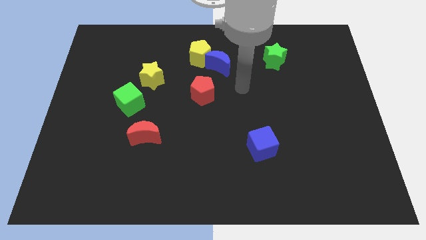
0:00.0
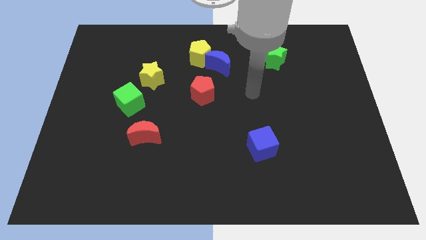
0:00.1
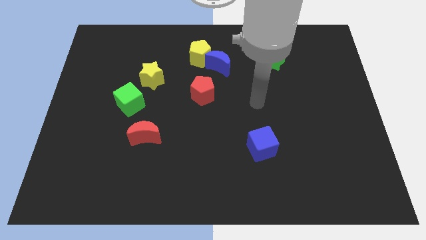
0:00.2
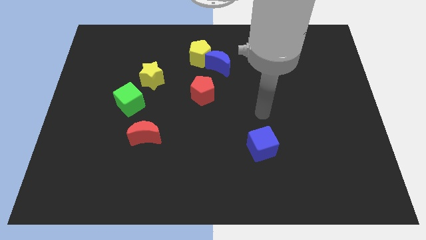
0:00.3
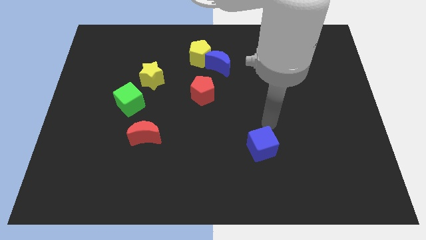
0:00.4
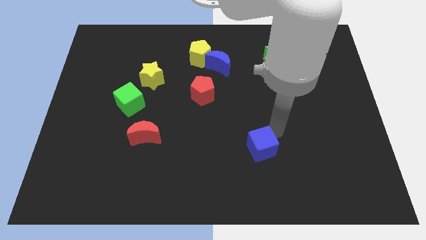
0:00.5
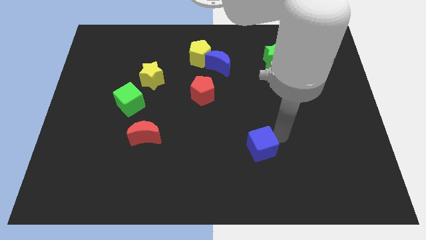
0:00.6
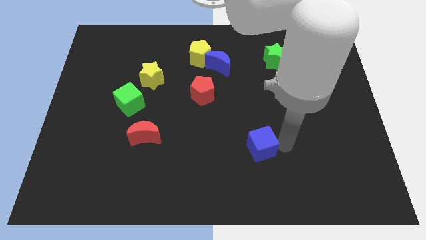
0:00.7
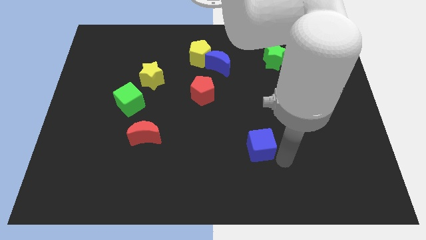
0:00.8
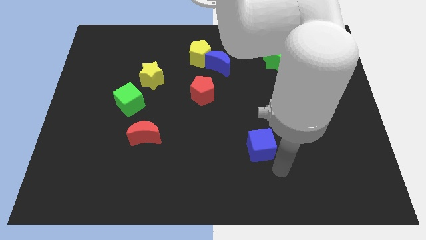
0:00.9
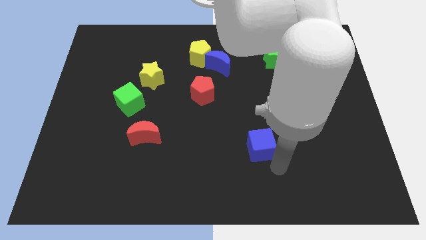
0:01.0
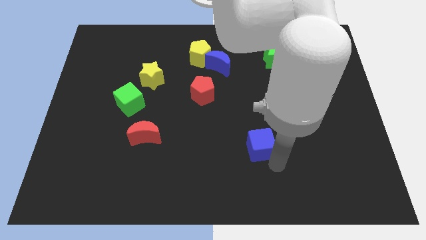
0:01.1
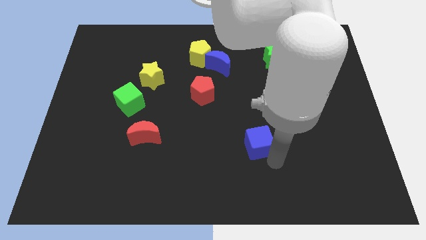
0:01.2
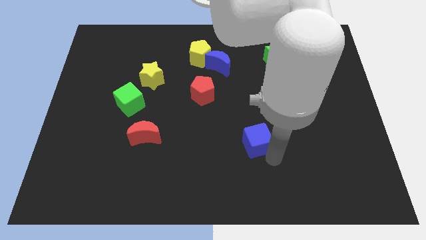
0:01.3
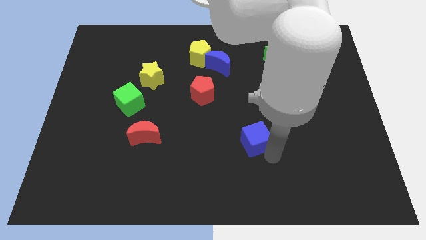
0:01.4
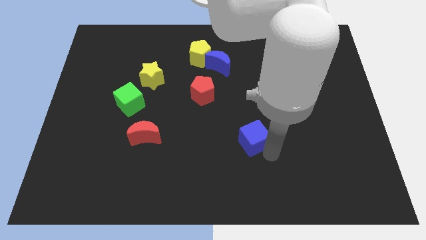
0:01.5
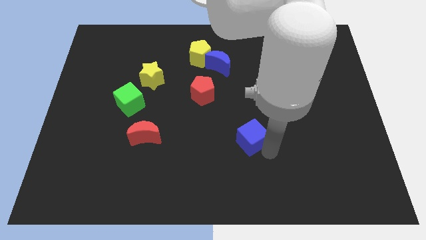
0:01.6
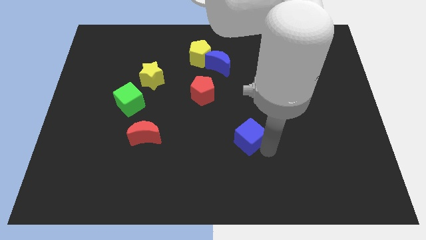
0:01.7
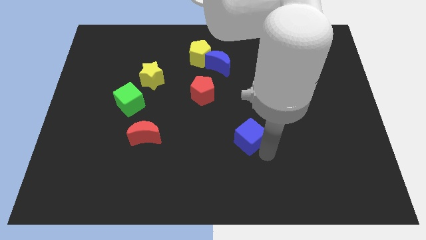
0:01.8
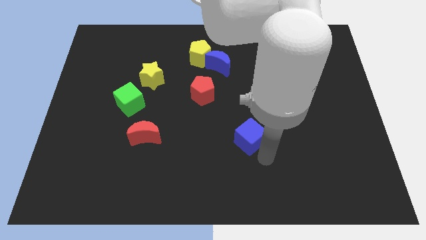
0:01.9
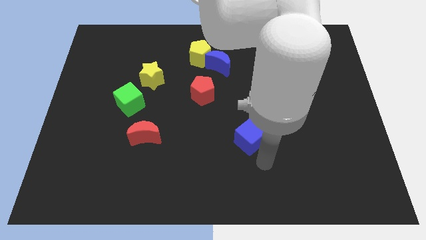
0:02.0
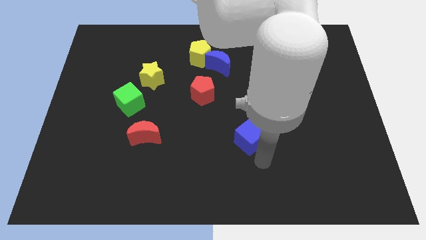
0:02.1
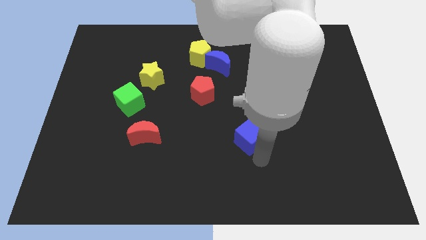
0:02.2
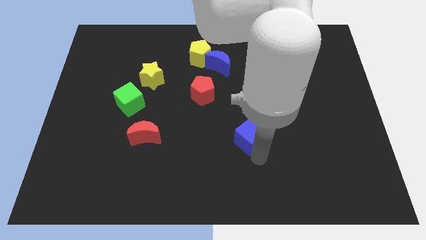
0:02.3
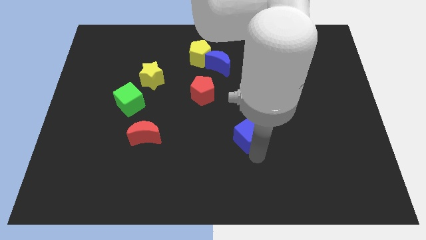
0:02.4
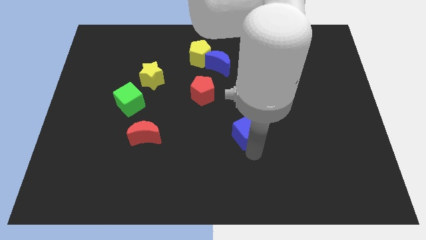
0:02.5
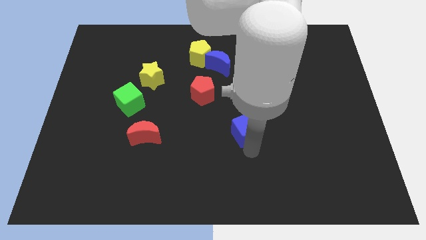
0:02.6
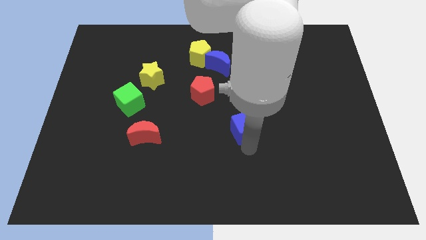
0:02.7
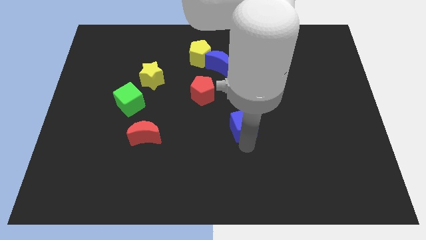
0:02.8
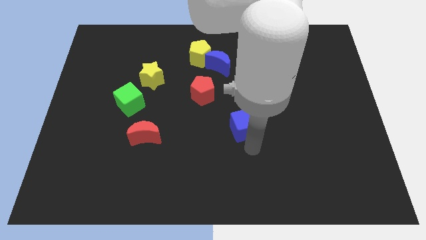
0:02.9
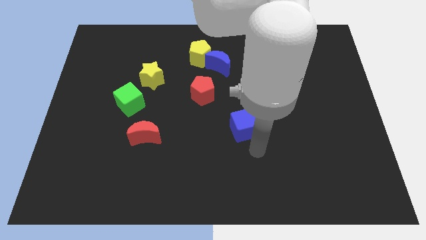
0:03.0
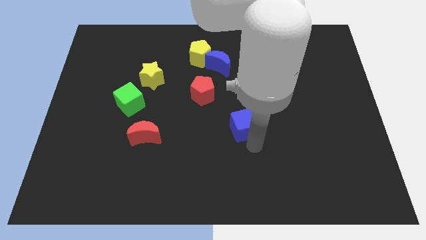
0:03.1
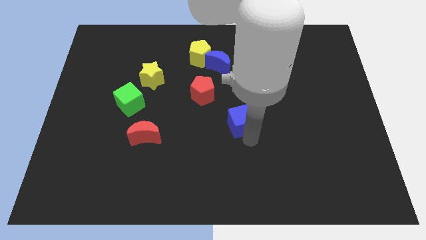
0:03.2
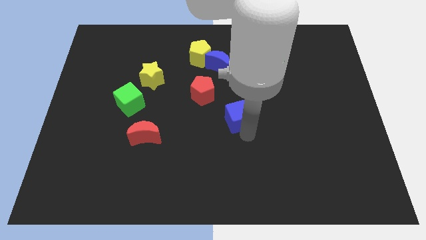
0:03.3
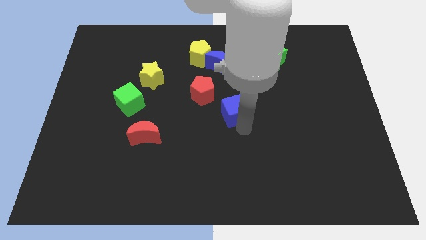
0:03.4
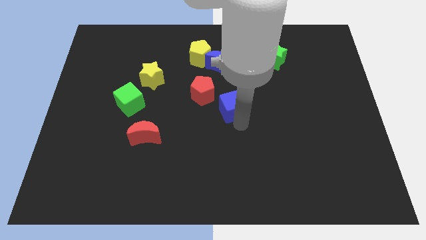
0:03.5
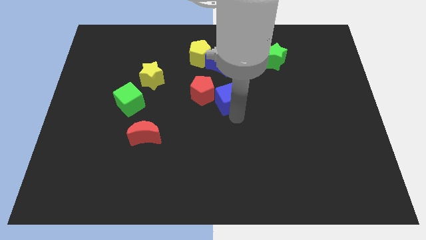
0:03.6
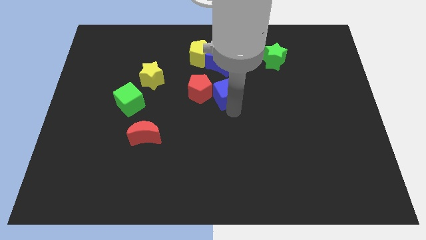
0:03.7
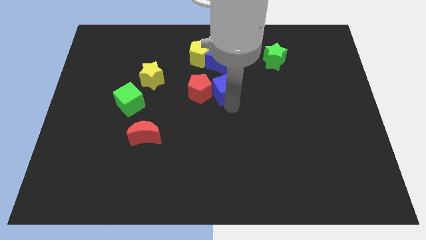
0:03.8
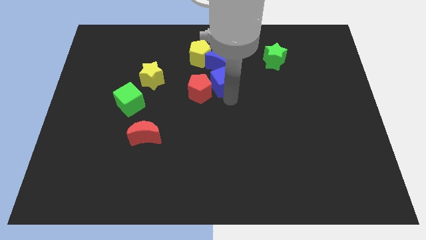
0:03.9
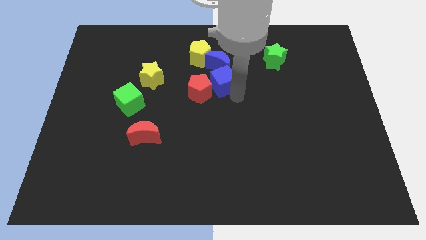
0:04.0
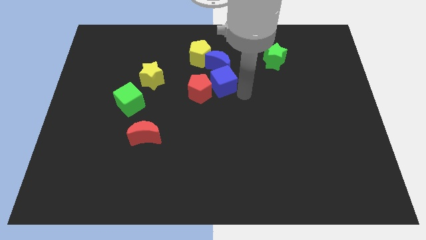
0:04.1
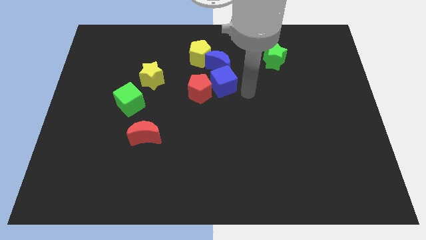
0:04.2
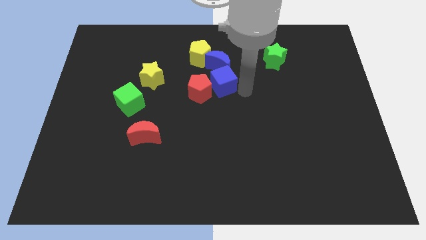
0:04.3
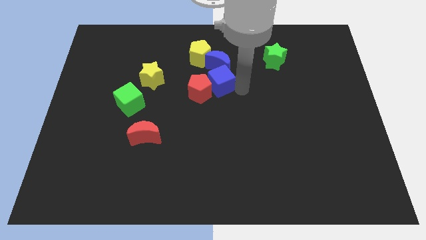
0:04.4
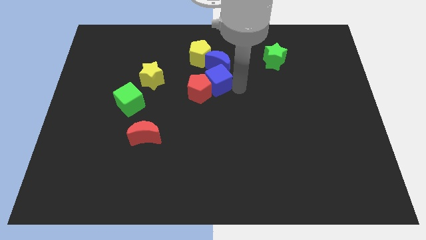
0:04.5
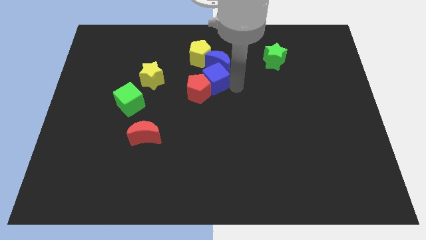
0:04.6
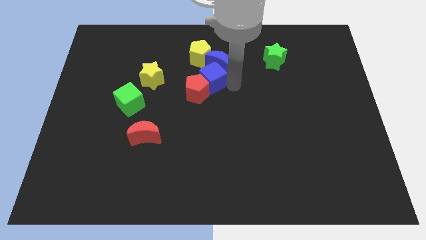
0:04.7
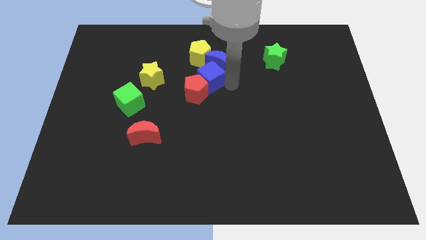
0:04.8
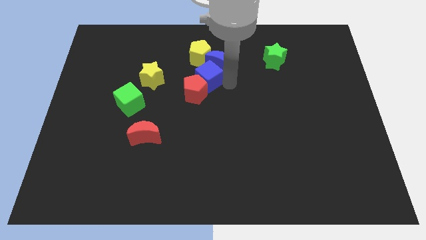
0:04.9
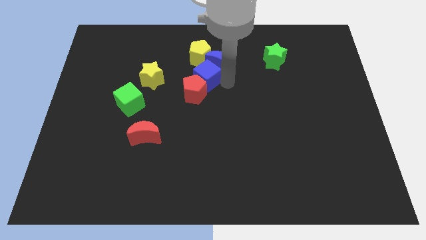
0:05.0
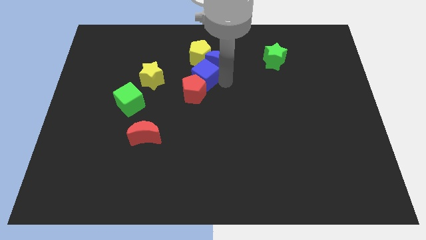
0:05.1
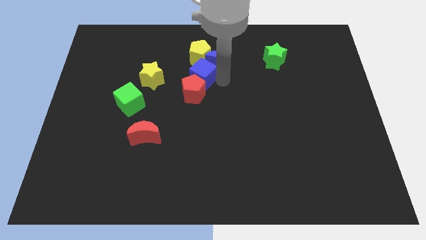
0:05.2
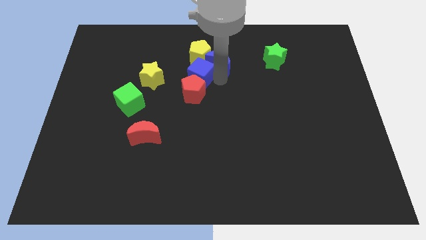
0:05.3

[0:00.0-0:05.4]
push the blue cube diagonally down and to the left of the yellow pentagon

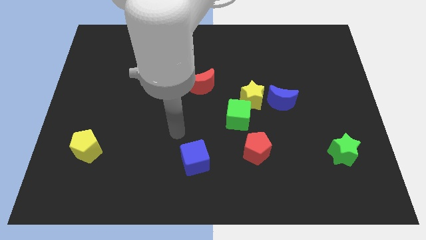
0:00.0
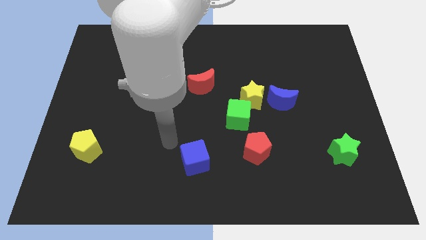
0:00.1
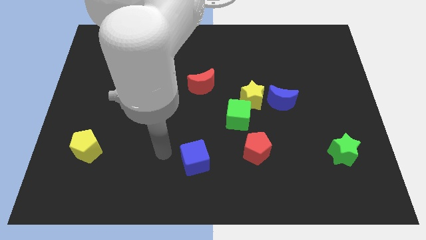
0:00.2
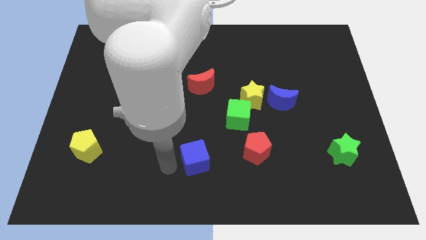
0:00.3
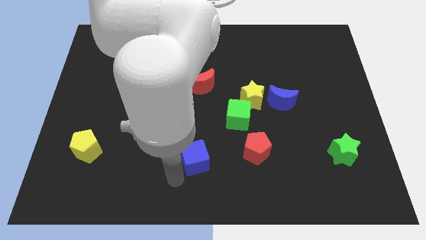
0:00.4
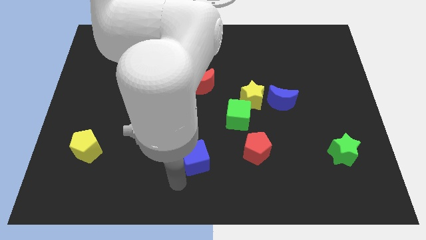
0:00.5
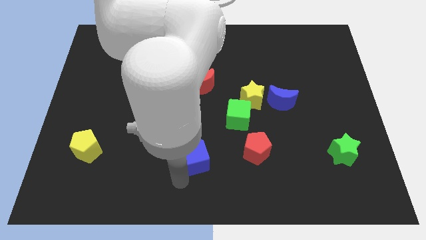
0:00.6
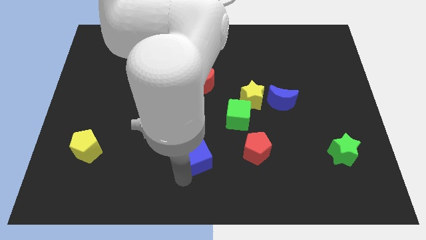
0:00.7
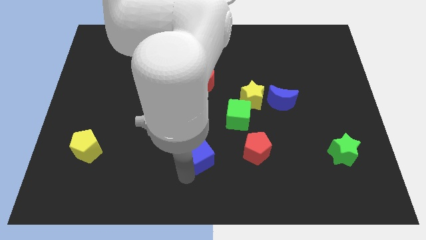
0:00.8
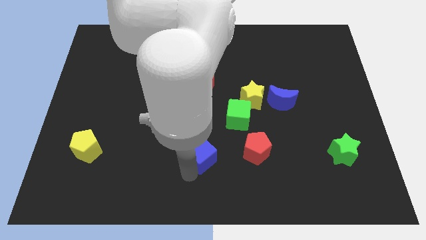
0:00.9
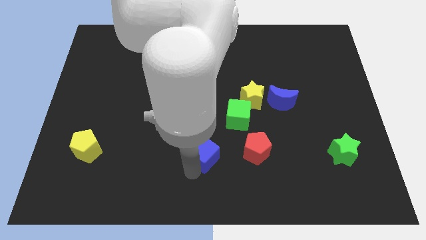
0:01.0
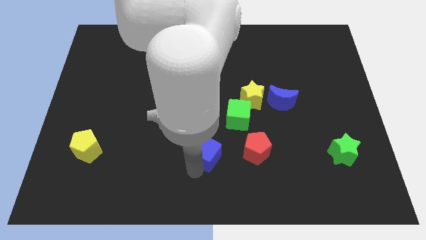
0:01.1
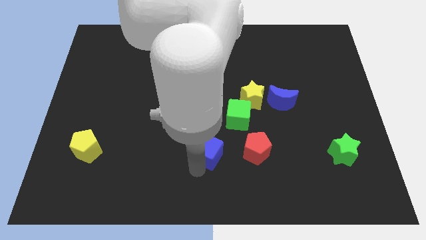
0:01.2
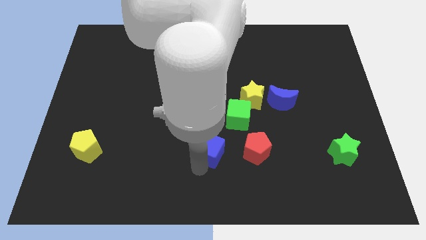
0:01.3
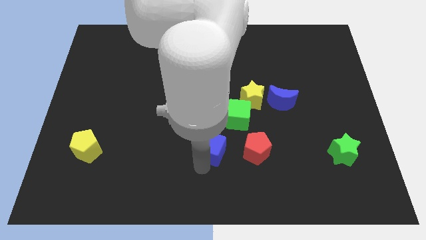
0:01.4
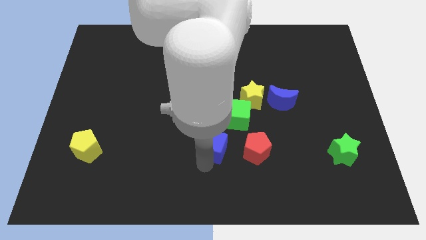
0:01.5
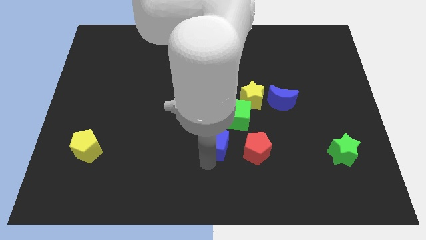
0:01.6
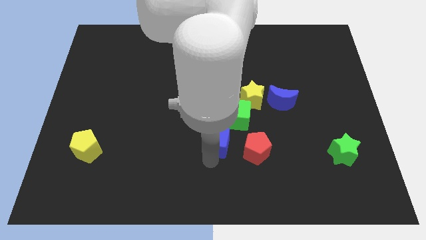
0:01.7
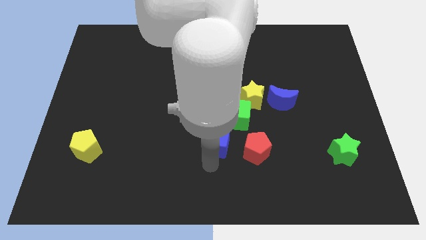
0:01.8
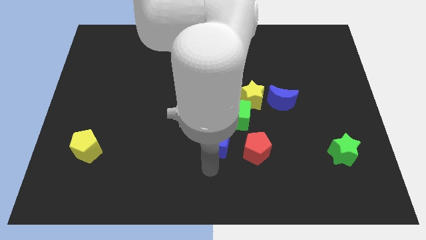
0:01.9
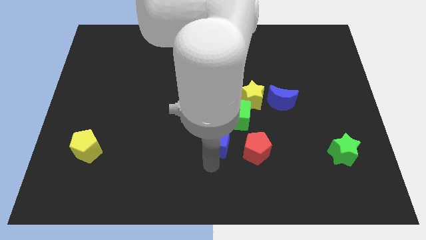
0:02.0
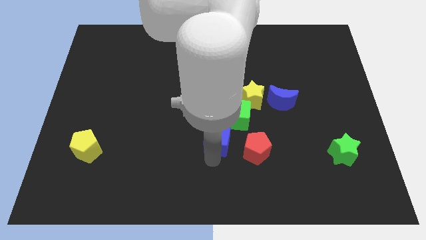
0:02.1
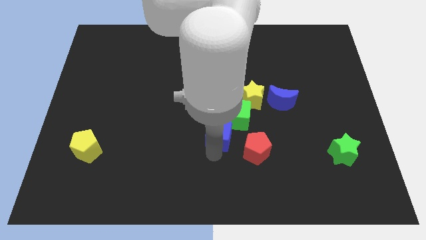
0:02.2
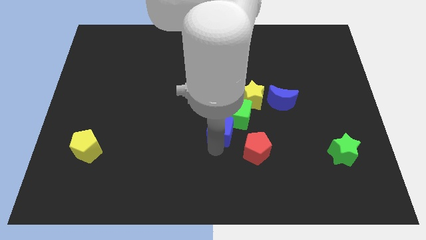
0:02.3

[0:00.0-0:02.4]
move the blue cube to the bottom left of the yellow star
